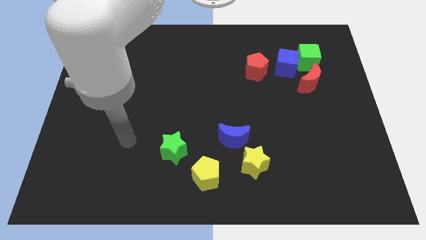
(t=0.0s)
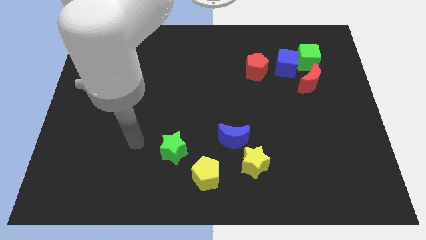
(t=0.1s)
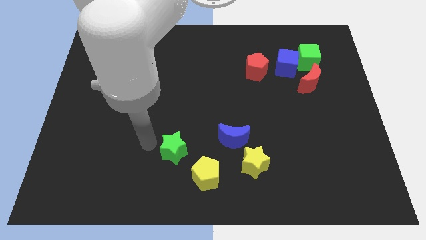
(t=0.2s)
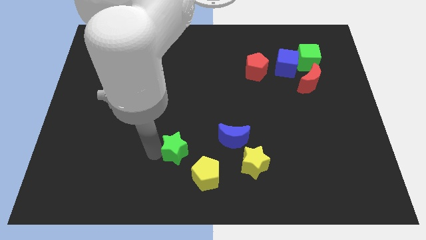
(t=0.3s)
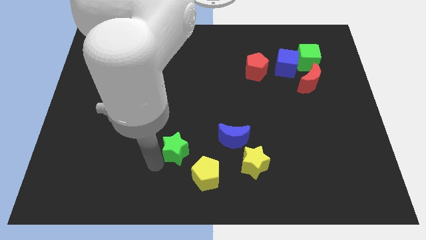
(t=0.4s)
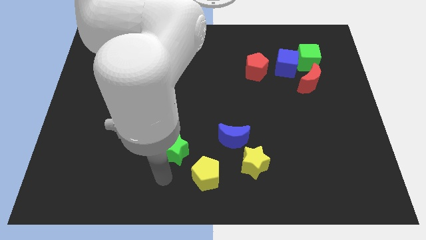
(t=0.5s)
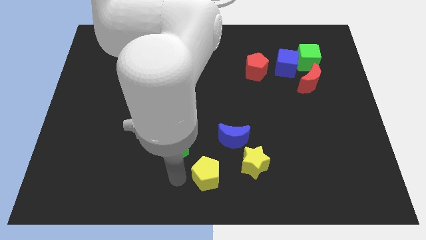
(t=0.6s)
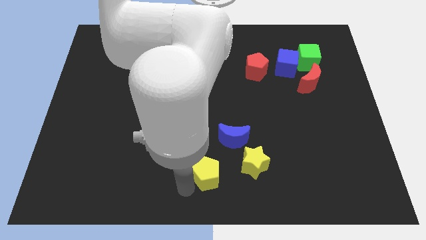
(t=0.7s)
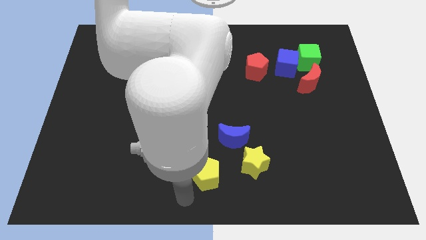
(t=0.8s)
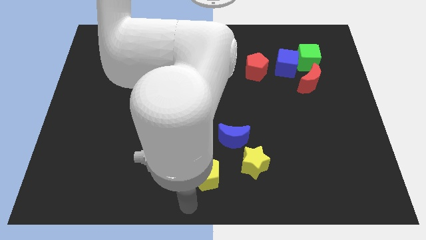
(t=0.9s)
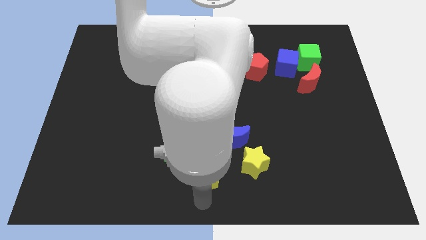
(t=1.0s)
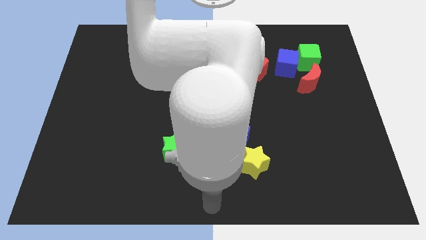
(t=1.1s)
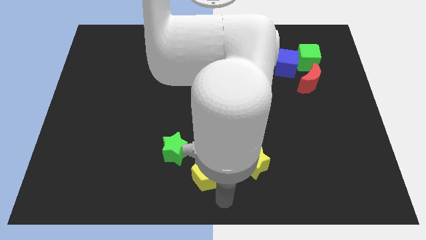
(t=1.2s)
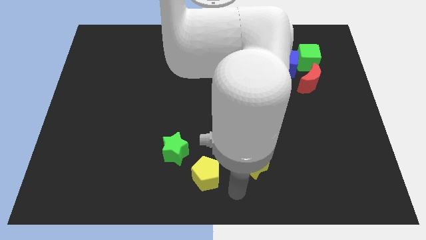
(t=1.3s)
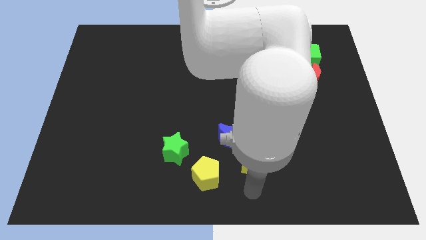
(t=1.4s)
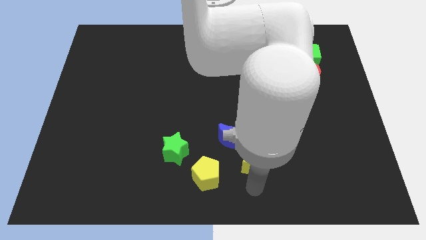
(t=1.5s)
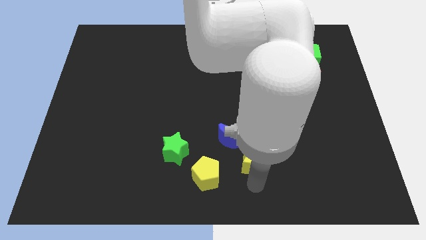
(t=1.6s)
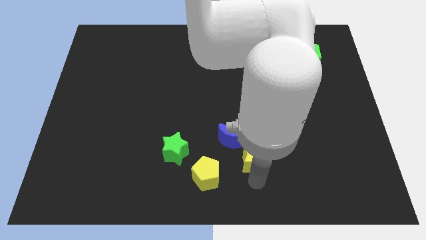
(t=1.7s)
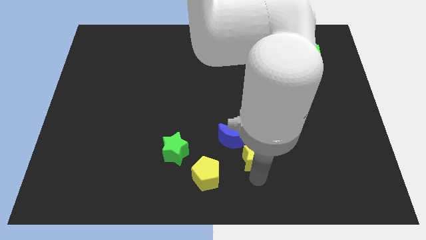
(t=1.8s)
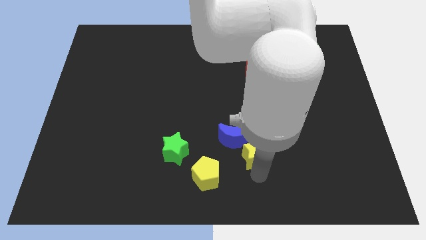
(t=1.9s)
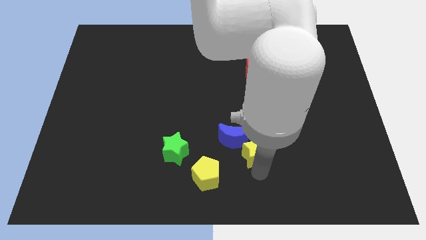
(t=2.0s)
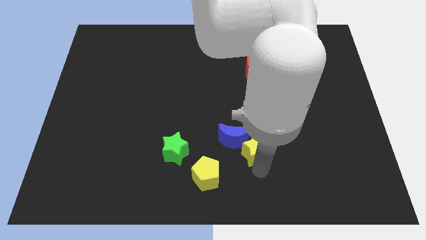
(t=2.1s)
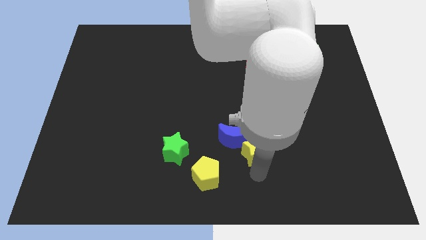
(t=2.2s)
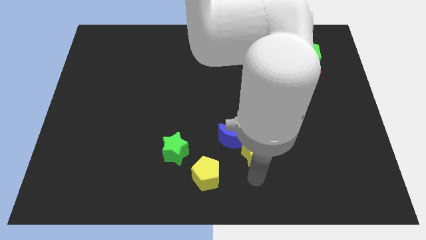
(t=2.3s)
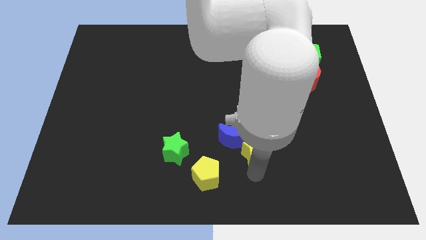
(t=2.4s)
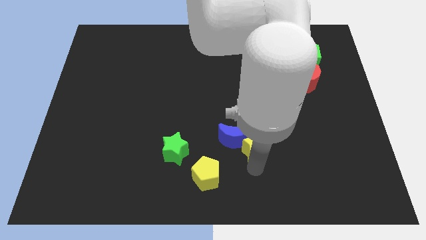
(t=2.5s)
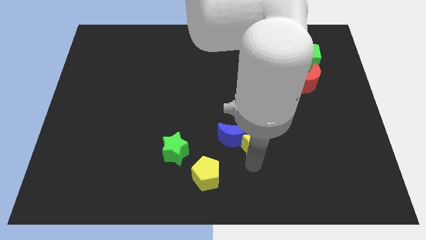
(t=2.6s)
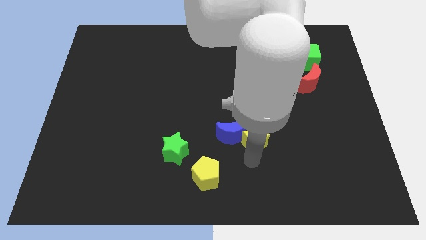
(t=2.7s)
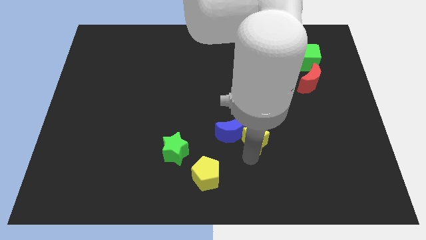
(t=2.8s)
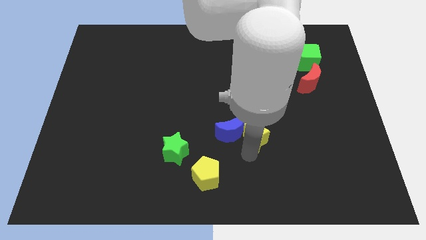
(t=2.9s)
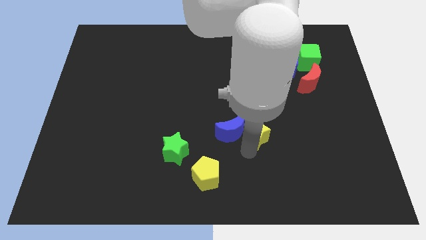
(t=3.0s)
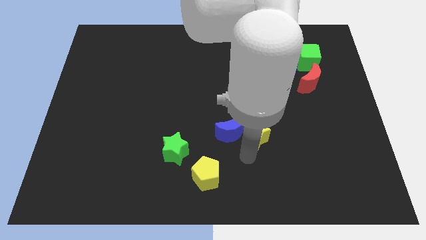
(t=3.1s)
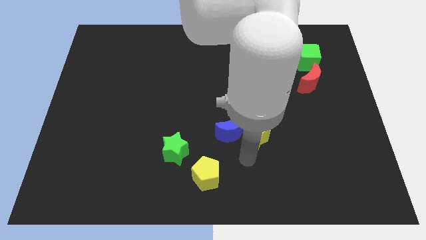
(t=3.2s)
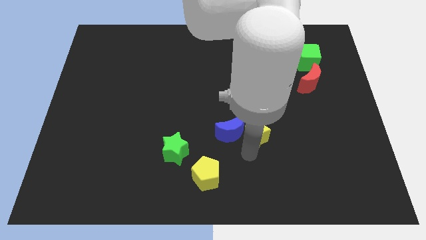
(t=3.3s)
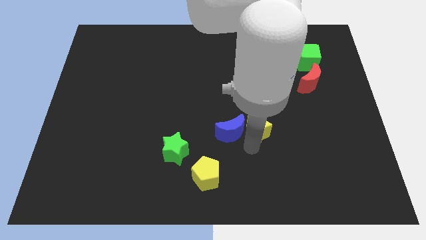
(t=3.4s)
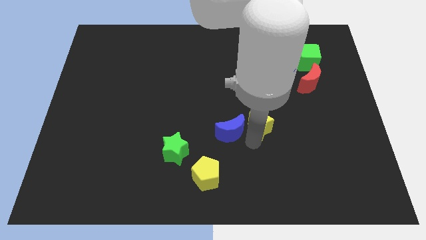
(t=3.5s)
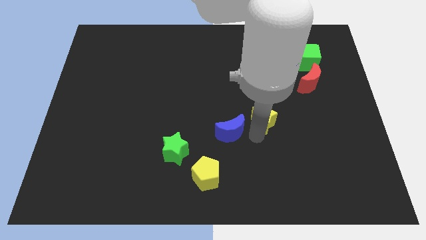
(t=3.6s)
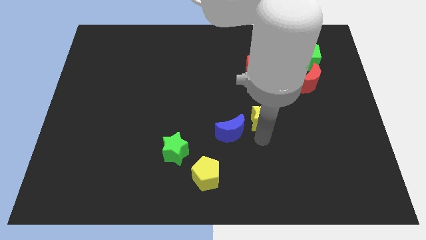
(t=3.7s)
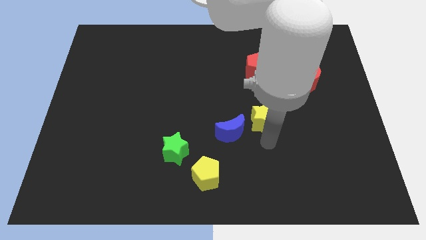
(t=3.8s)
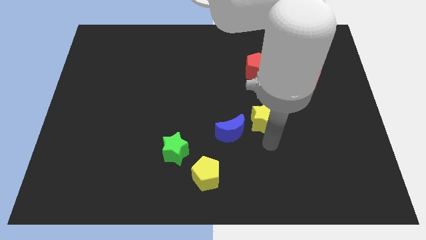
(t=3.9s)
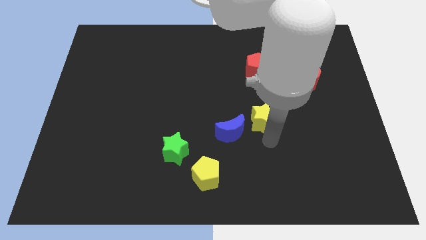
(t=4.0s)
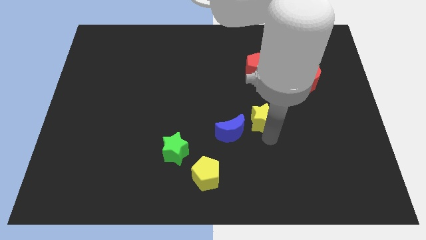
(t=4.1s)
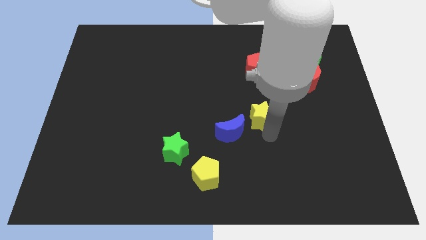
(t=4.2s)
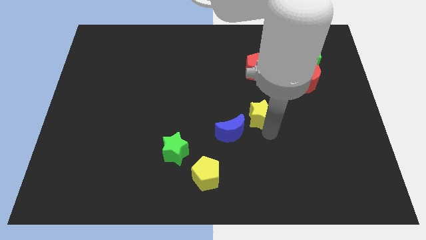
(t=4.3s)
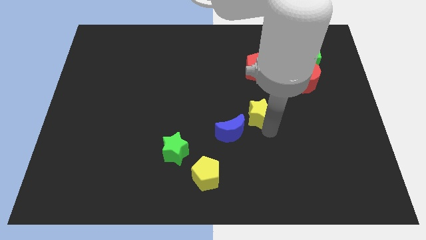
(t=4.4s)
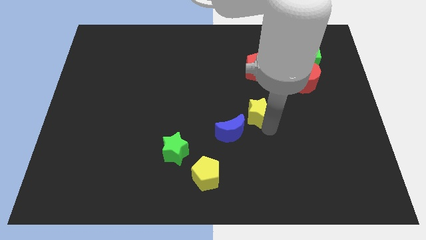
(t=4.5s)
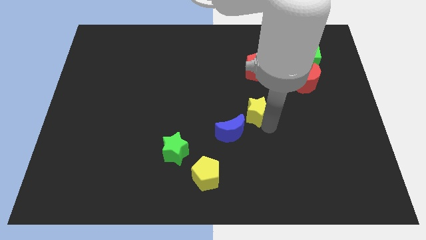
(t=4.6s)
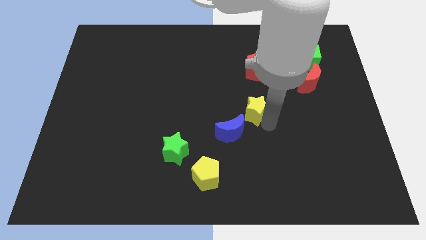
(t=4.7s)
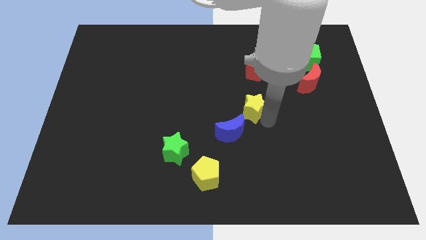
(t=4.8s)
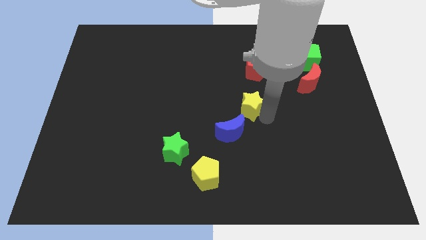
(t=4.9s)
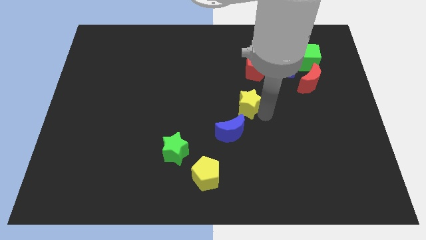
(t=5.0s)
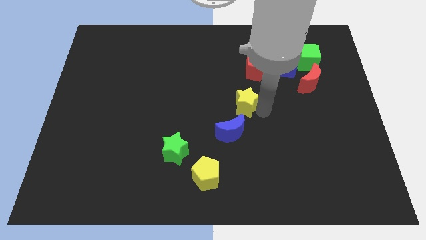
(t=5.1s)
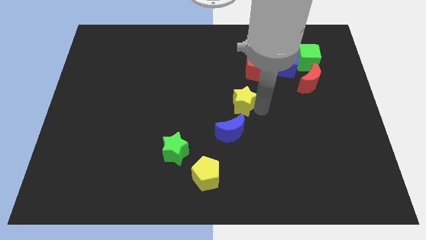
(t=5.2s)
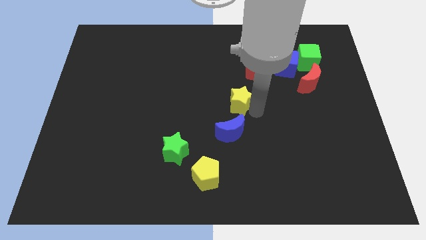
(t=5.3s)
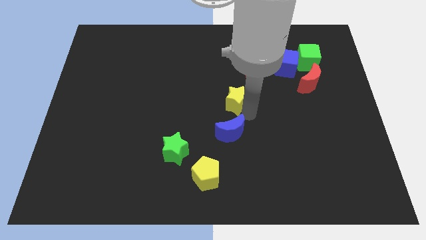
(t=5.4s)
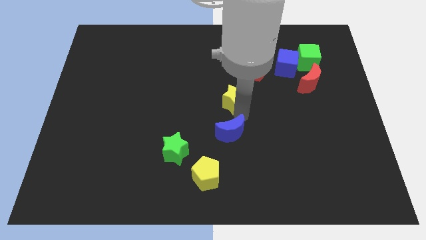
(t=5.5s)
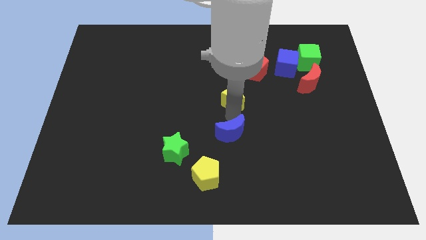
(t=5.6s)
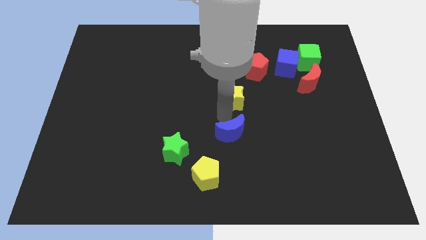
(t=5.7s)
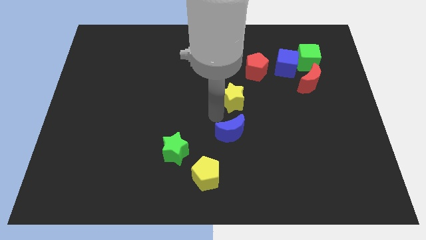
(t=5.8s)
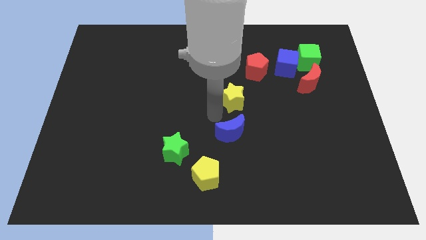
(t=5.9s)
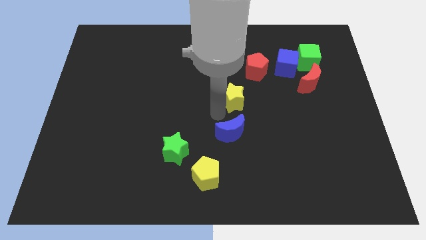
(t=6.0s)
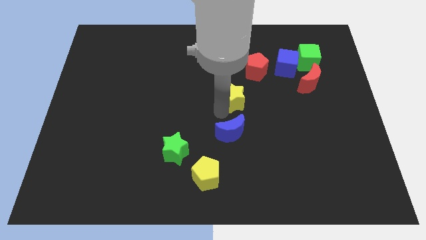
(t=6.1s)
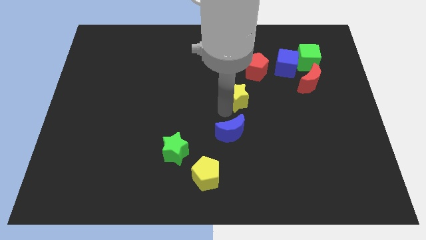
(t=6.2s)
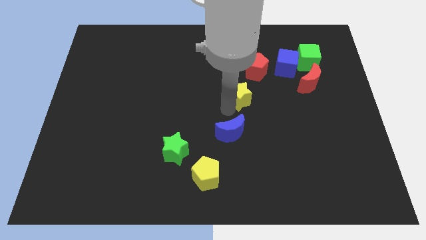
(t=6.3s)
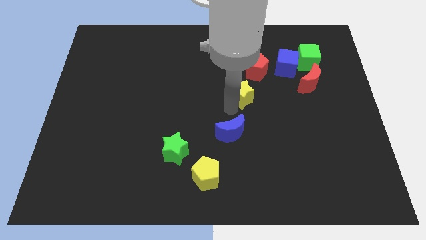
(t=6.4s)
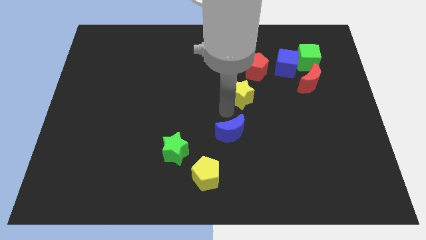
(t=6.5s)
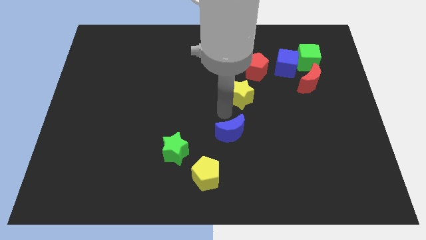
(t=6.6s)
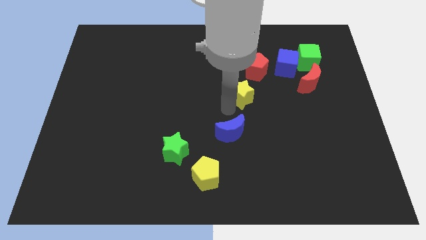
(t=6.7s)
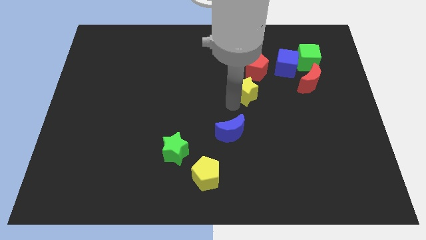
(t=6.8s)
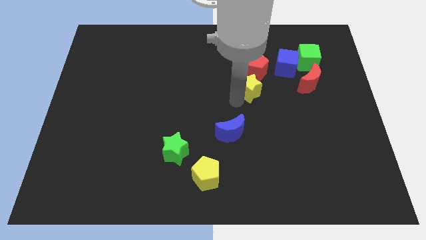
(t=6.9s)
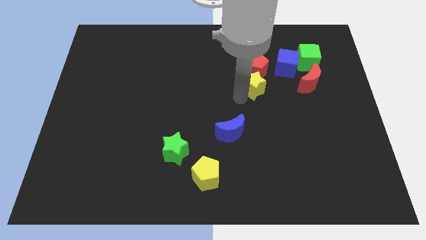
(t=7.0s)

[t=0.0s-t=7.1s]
slide the yellow star close to the red pentagon

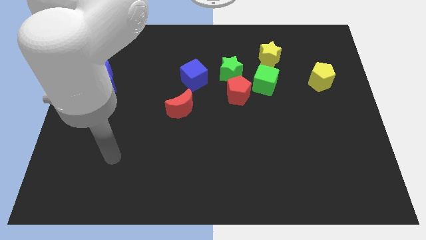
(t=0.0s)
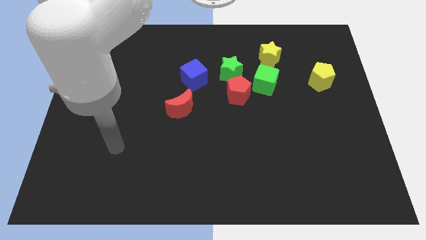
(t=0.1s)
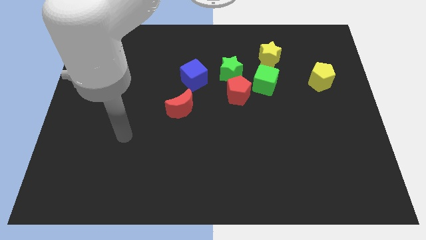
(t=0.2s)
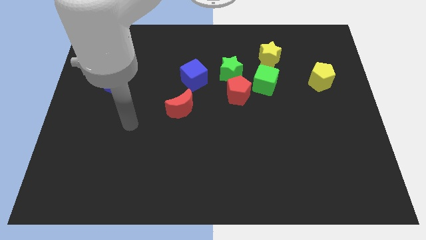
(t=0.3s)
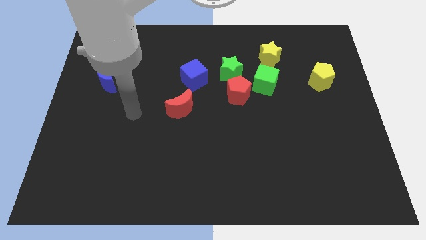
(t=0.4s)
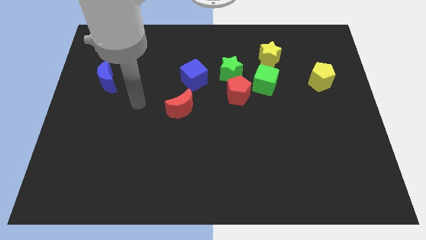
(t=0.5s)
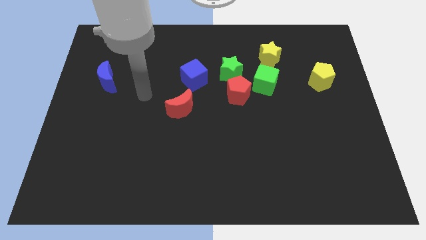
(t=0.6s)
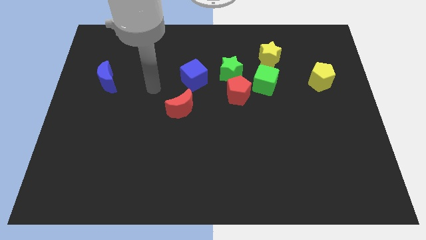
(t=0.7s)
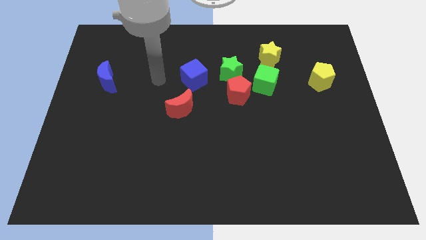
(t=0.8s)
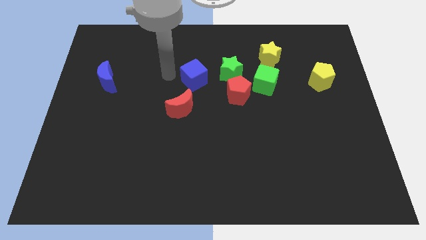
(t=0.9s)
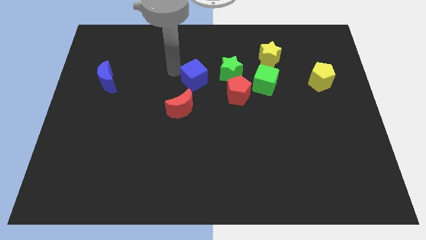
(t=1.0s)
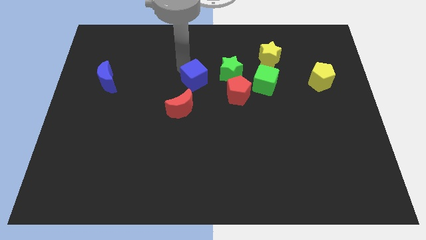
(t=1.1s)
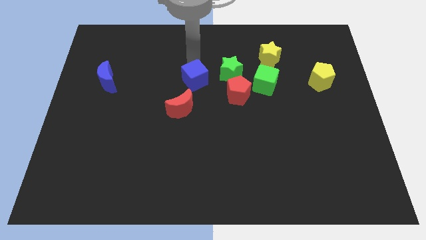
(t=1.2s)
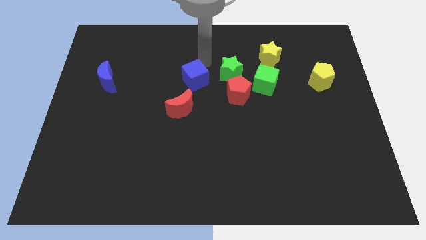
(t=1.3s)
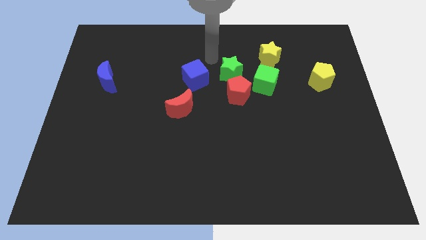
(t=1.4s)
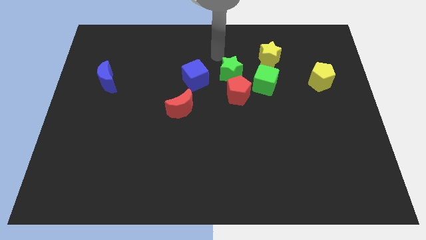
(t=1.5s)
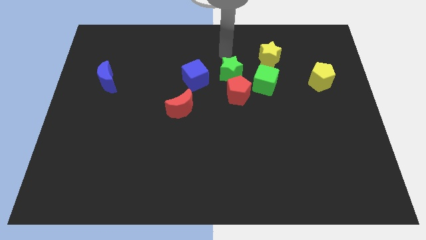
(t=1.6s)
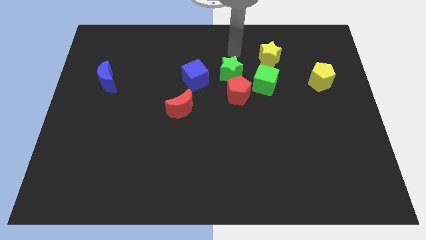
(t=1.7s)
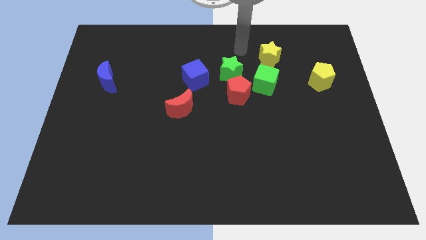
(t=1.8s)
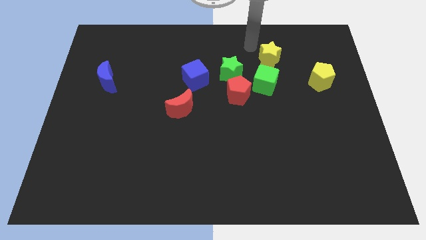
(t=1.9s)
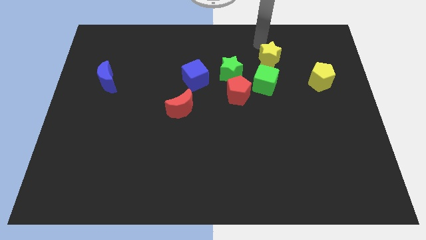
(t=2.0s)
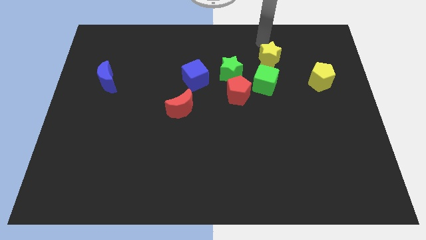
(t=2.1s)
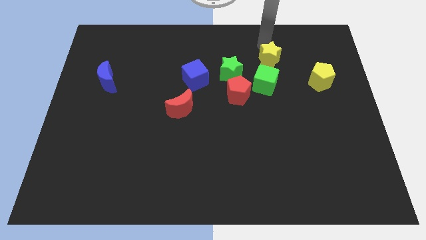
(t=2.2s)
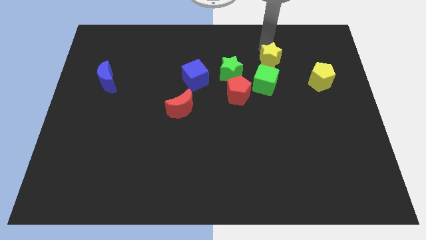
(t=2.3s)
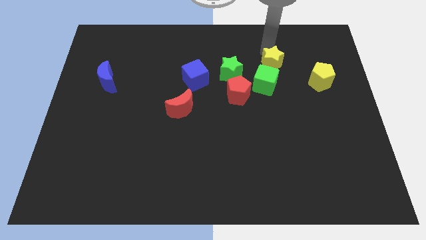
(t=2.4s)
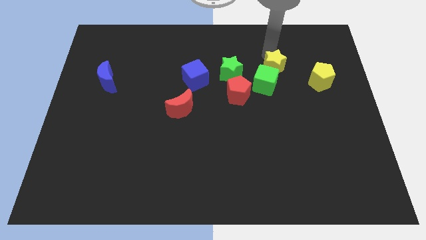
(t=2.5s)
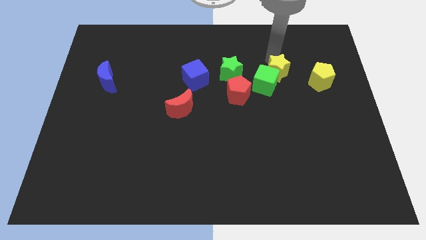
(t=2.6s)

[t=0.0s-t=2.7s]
put the yellow star close to the green cube
